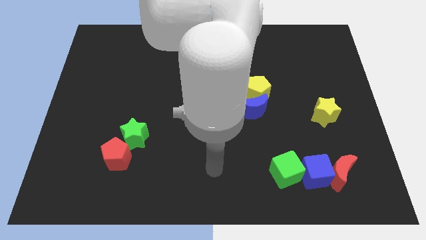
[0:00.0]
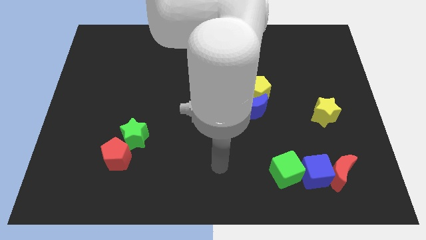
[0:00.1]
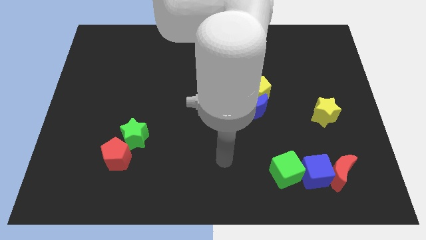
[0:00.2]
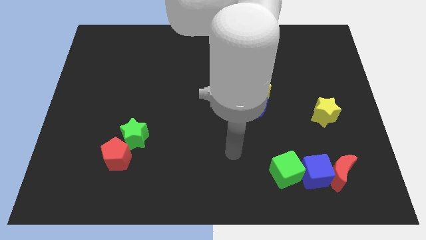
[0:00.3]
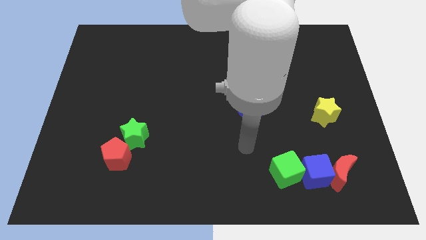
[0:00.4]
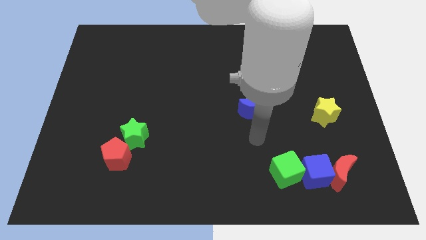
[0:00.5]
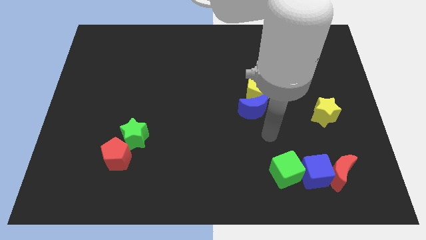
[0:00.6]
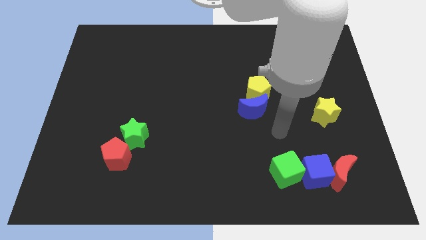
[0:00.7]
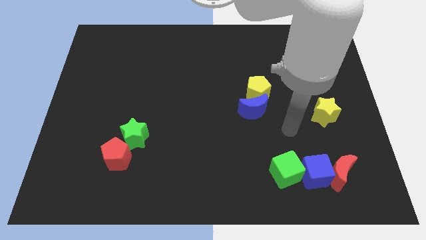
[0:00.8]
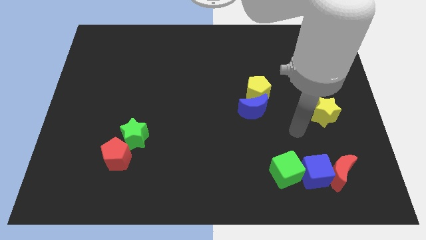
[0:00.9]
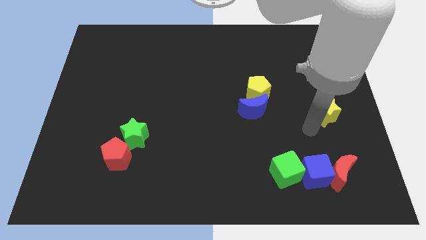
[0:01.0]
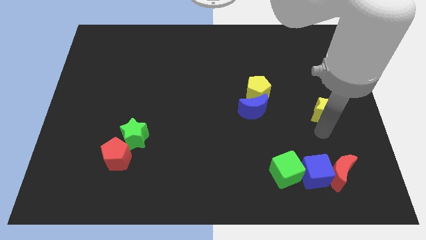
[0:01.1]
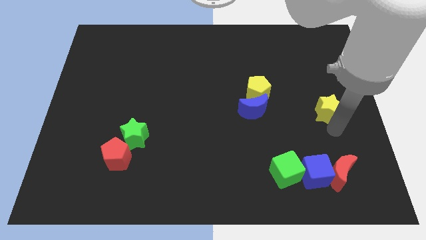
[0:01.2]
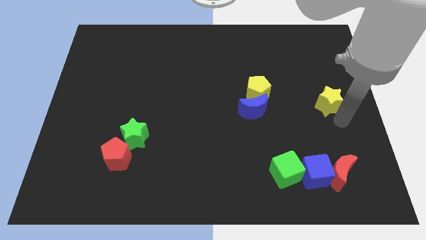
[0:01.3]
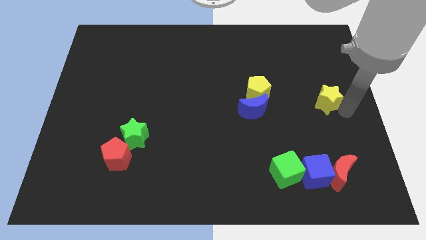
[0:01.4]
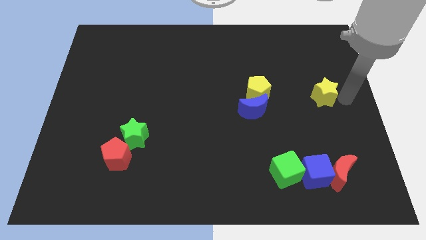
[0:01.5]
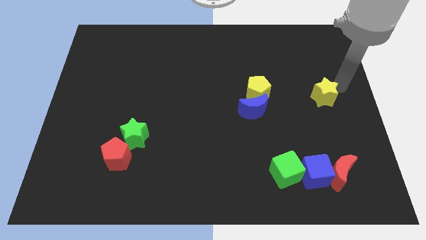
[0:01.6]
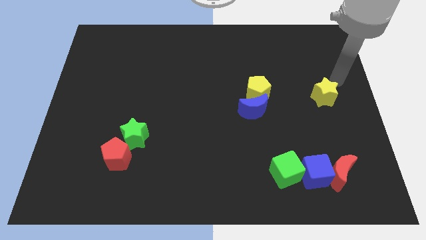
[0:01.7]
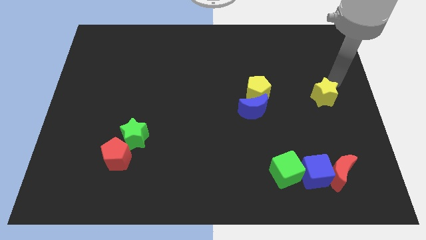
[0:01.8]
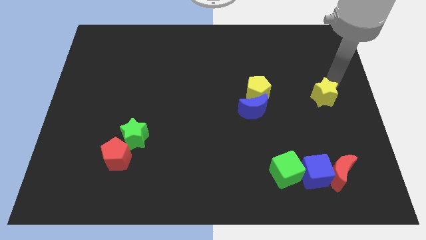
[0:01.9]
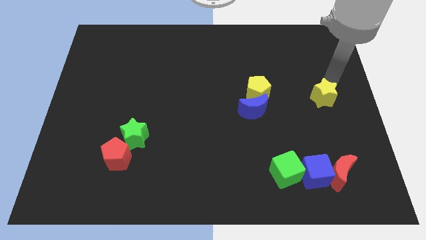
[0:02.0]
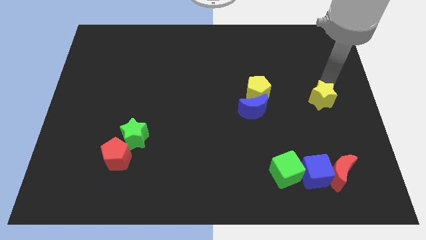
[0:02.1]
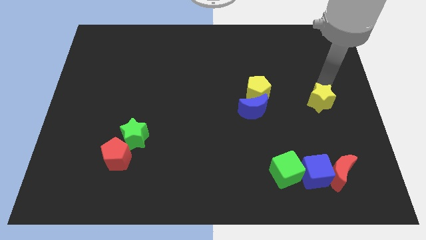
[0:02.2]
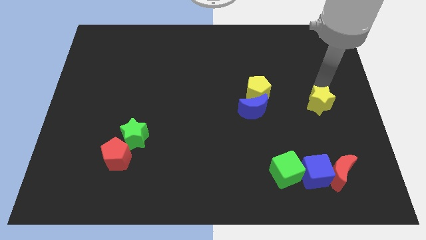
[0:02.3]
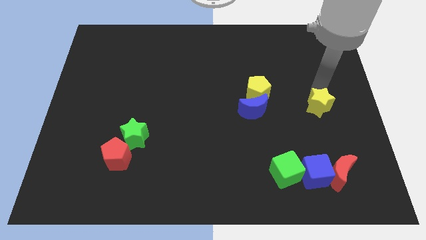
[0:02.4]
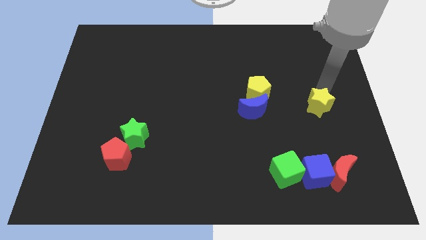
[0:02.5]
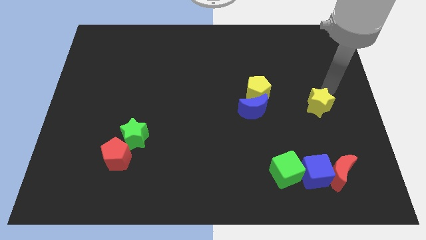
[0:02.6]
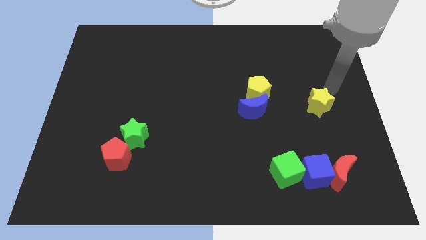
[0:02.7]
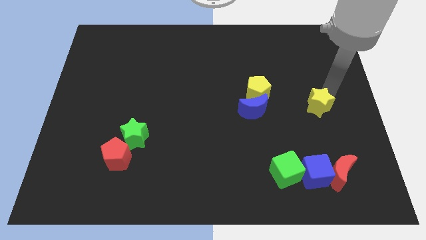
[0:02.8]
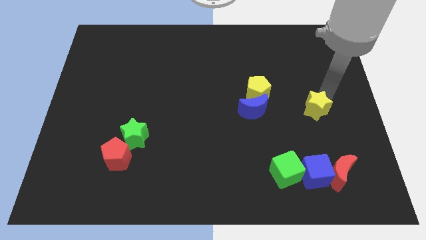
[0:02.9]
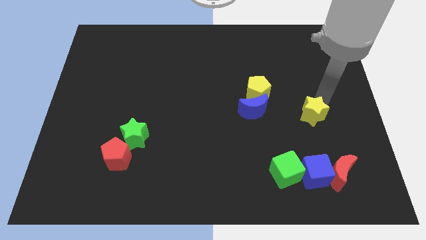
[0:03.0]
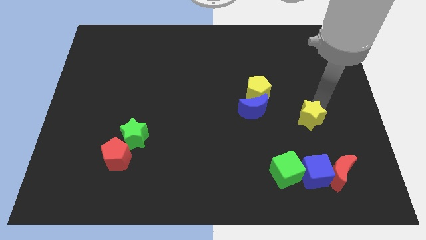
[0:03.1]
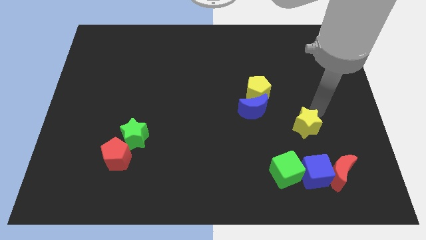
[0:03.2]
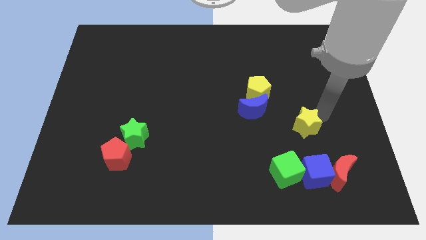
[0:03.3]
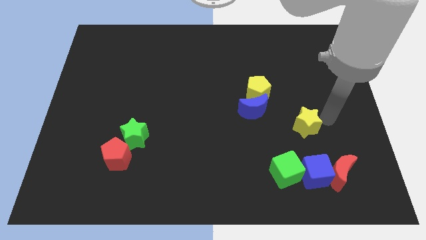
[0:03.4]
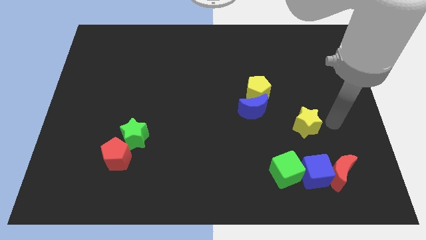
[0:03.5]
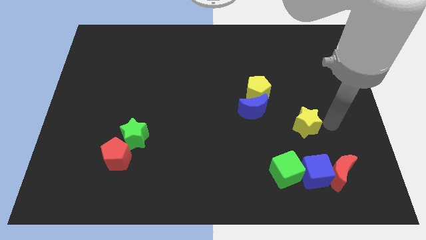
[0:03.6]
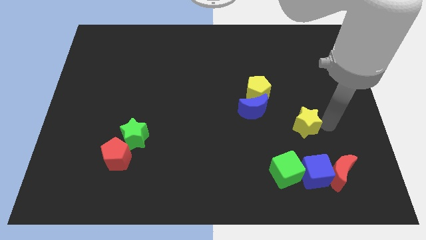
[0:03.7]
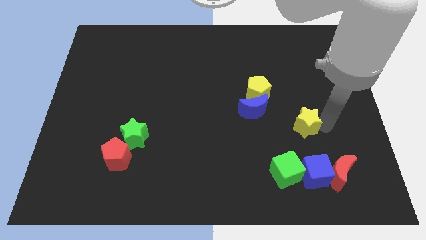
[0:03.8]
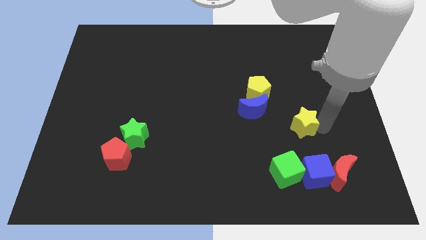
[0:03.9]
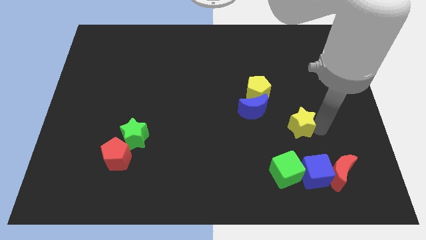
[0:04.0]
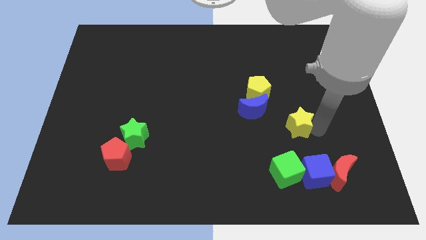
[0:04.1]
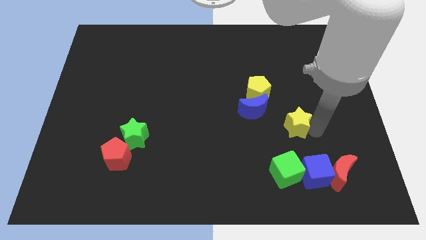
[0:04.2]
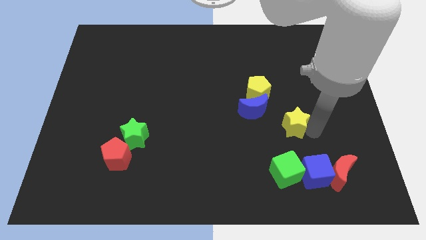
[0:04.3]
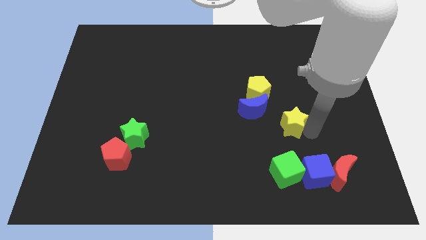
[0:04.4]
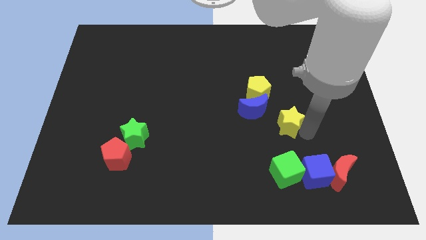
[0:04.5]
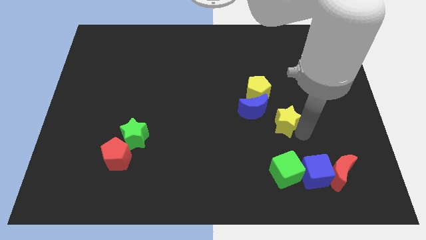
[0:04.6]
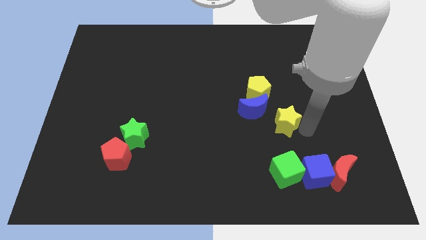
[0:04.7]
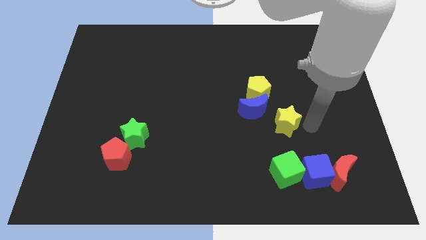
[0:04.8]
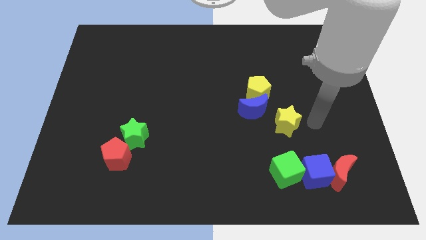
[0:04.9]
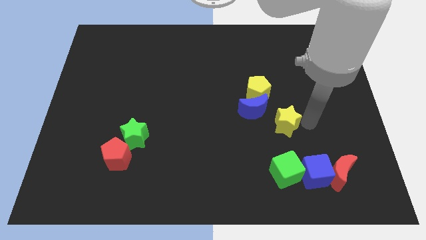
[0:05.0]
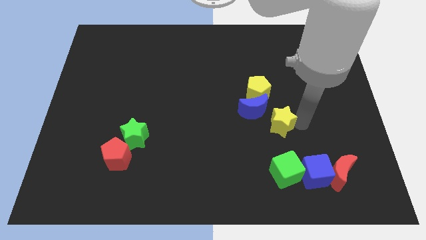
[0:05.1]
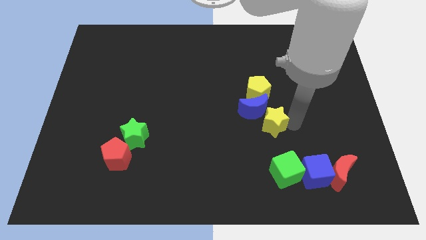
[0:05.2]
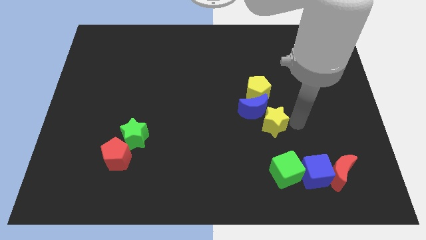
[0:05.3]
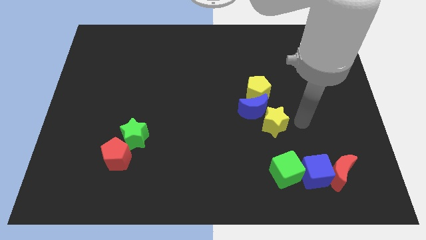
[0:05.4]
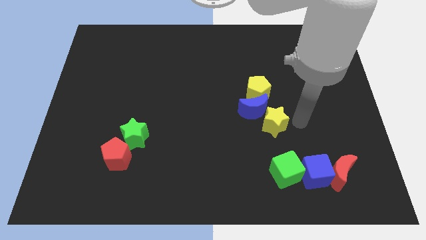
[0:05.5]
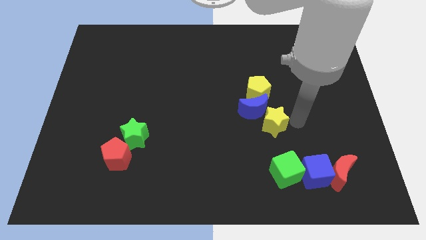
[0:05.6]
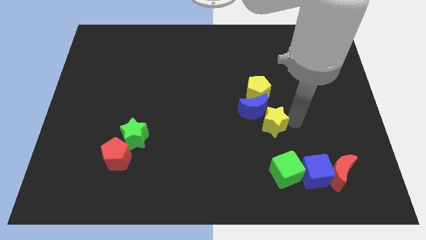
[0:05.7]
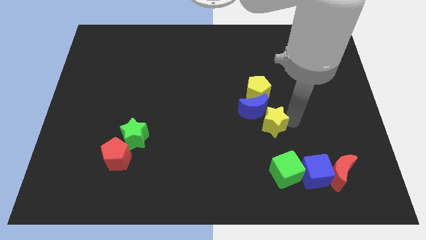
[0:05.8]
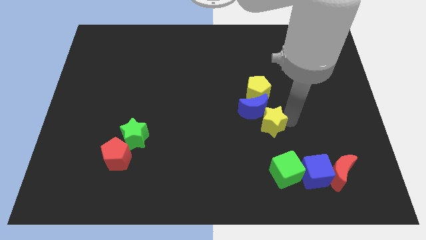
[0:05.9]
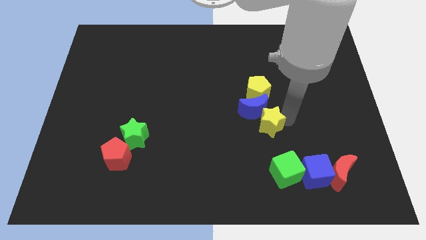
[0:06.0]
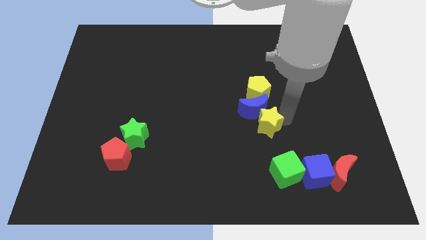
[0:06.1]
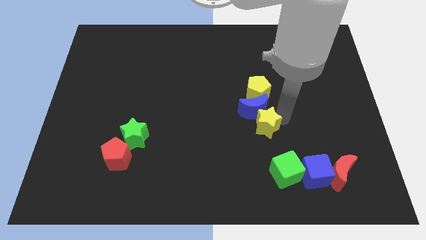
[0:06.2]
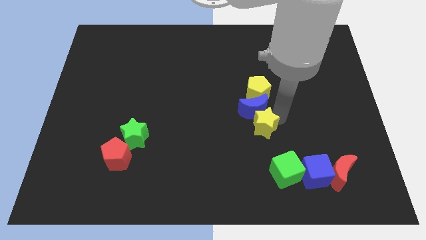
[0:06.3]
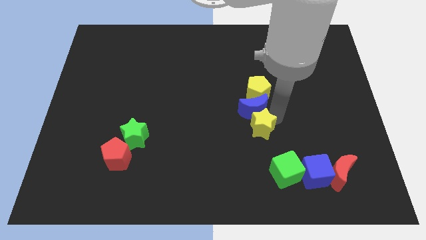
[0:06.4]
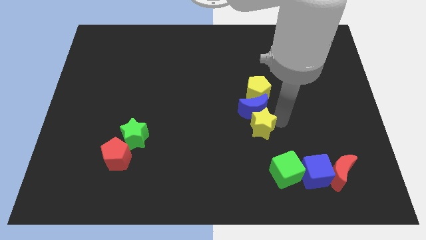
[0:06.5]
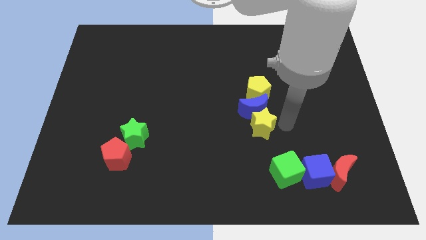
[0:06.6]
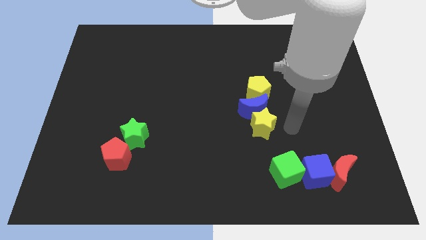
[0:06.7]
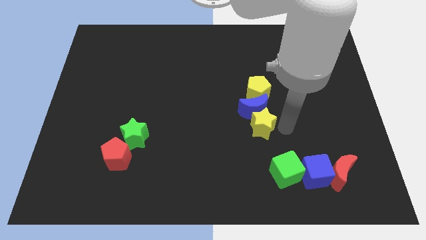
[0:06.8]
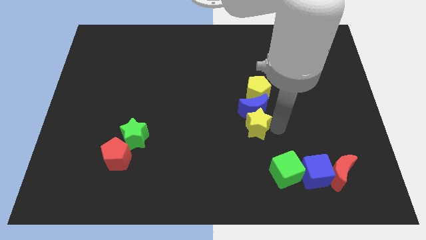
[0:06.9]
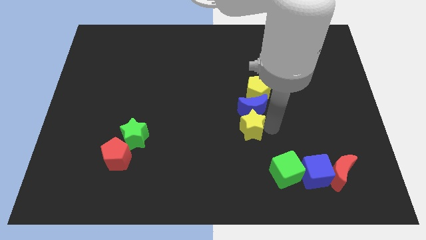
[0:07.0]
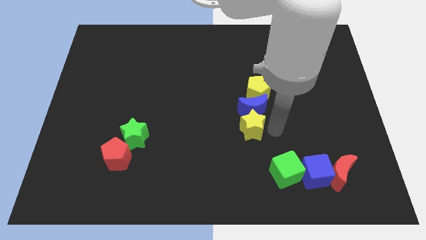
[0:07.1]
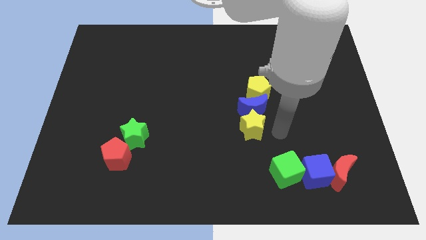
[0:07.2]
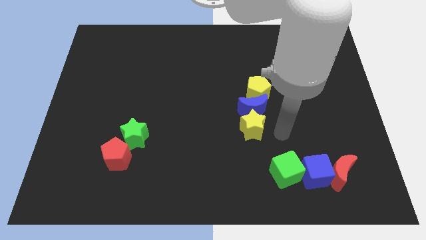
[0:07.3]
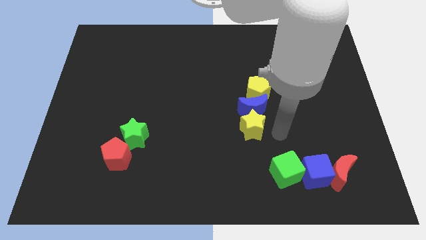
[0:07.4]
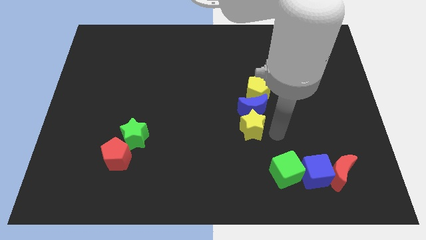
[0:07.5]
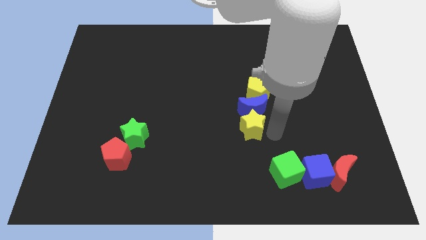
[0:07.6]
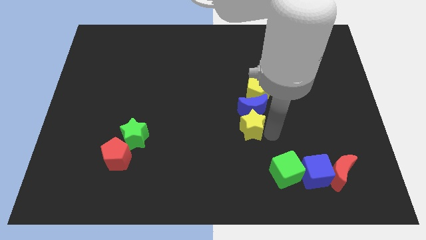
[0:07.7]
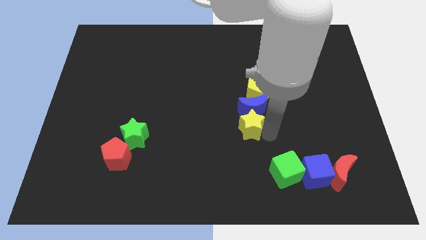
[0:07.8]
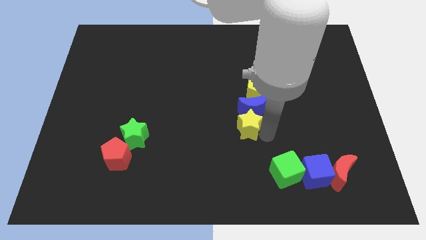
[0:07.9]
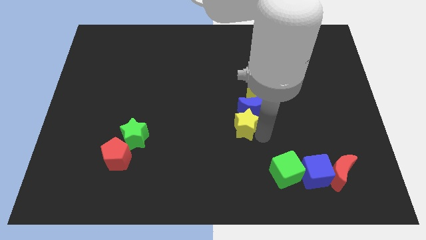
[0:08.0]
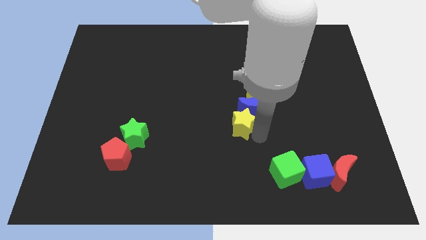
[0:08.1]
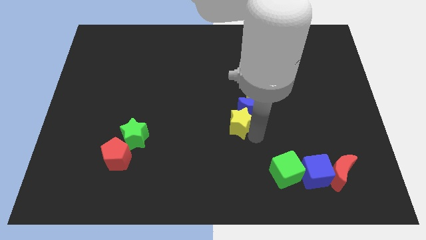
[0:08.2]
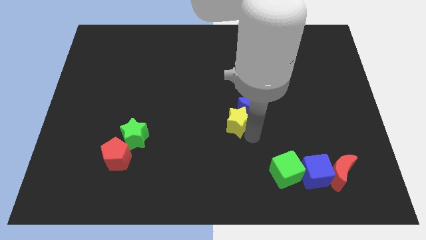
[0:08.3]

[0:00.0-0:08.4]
push the yellow star to the left
